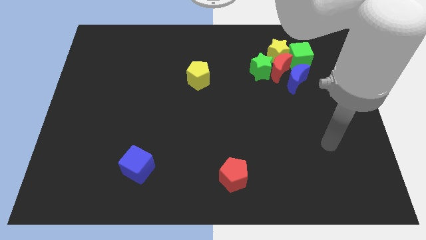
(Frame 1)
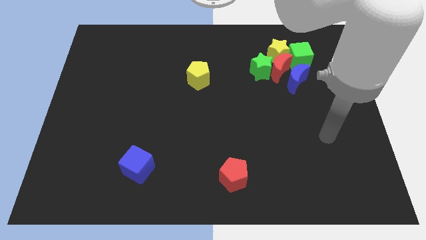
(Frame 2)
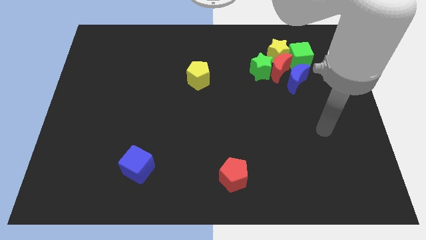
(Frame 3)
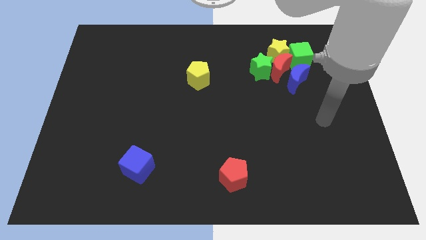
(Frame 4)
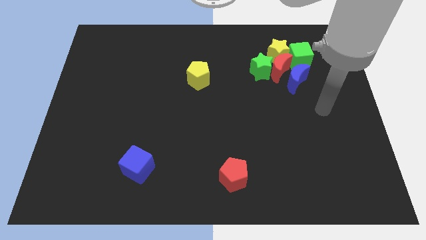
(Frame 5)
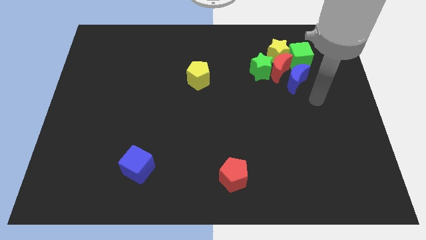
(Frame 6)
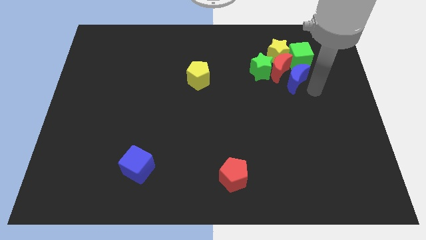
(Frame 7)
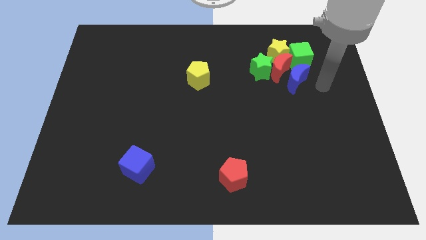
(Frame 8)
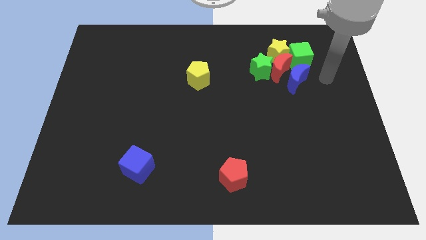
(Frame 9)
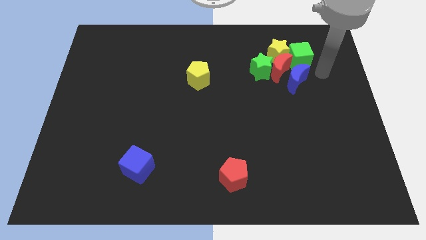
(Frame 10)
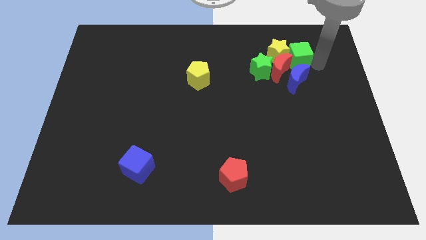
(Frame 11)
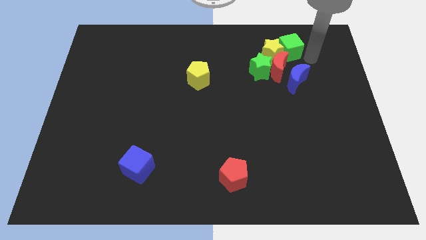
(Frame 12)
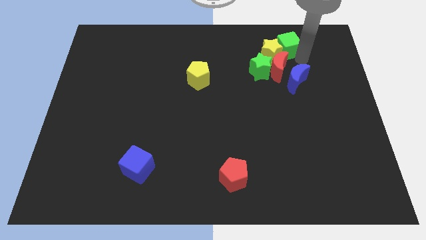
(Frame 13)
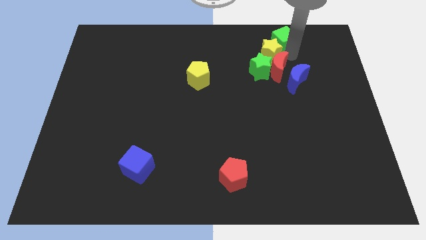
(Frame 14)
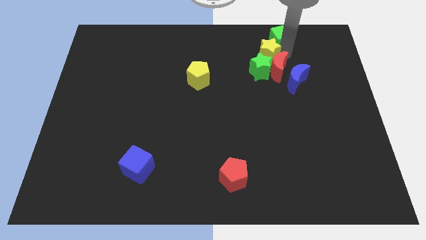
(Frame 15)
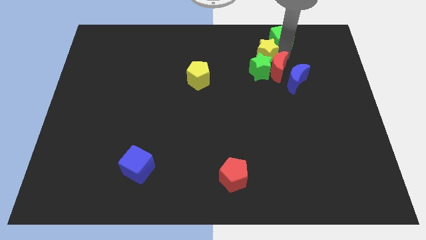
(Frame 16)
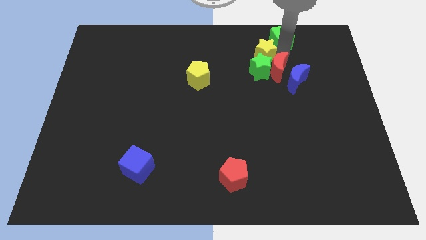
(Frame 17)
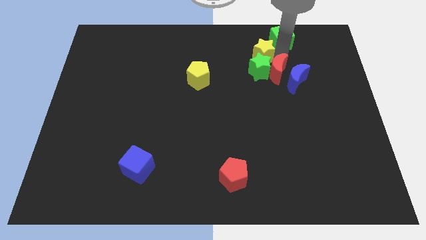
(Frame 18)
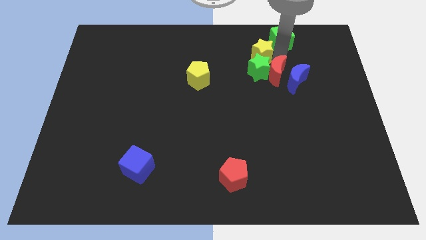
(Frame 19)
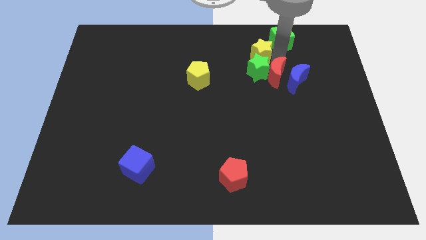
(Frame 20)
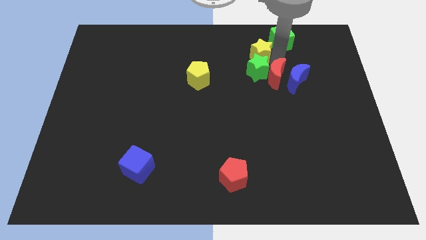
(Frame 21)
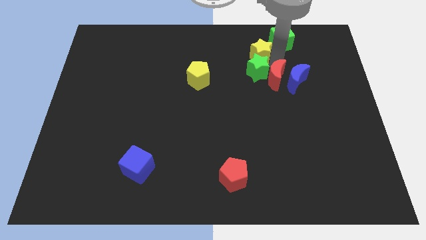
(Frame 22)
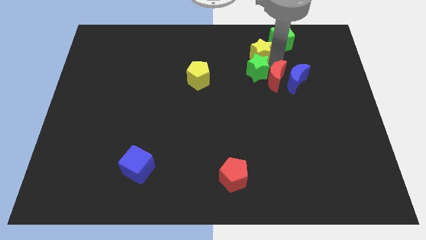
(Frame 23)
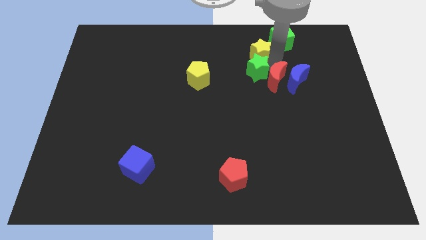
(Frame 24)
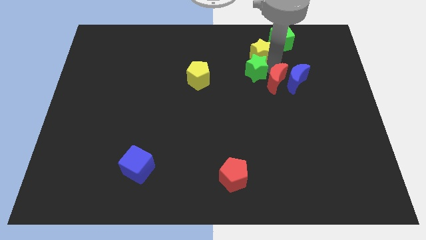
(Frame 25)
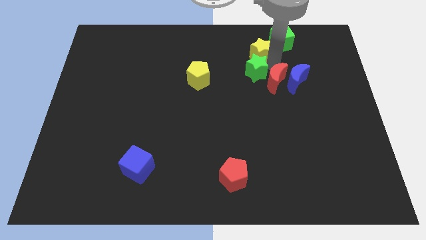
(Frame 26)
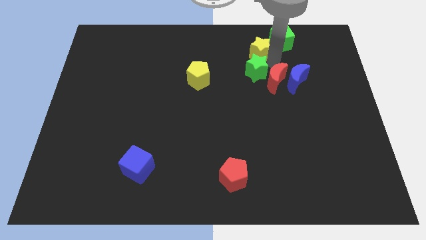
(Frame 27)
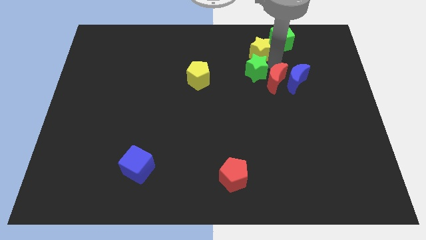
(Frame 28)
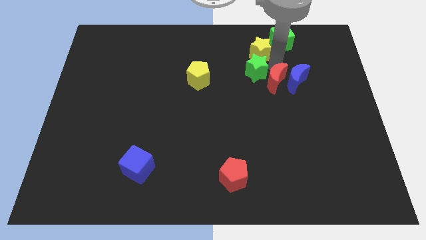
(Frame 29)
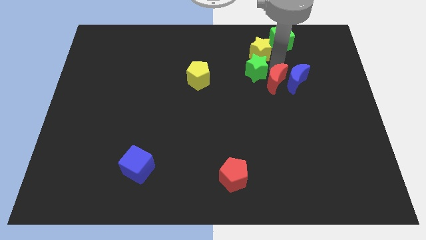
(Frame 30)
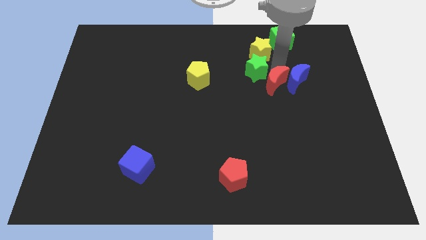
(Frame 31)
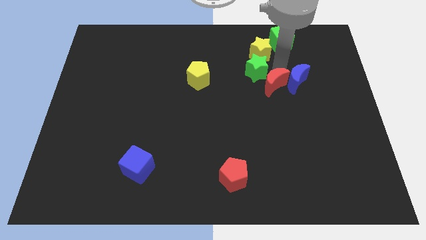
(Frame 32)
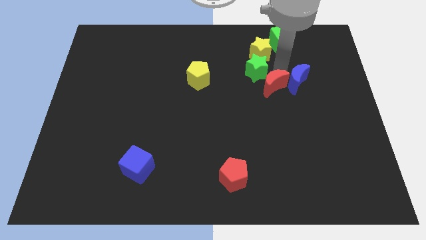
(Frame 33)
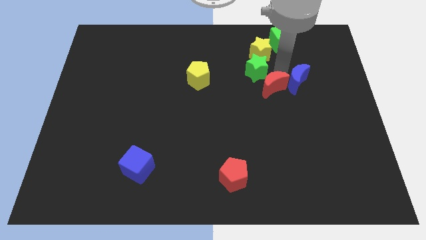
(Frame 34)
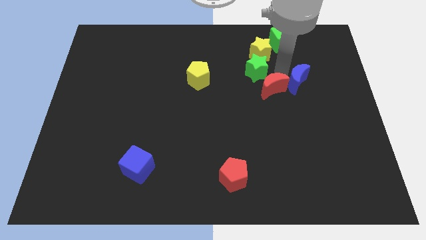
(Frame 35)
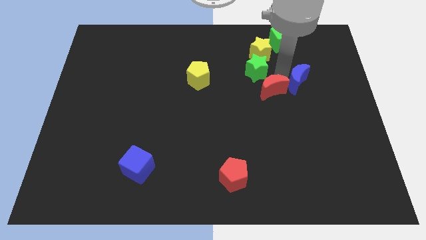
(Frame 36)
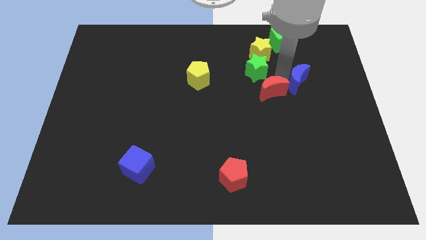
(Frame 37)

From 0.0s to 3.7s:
separate the red moon from the clump

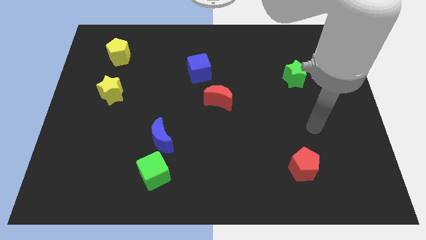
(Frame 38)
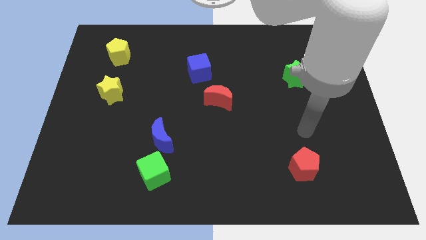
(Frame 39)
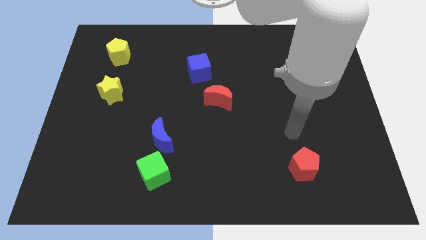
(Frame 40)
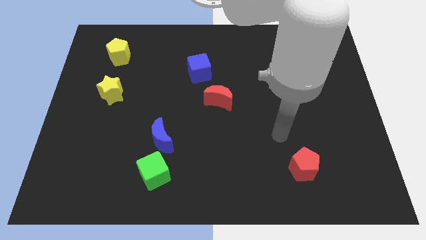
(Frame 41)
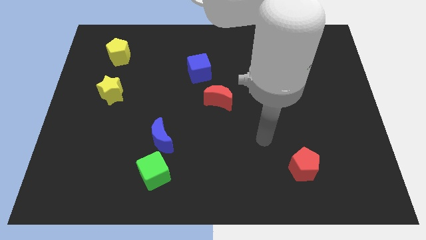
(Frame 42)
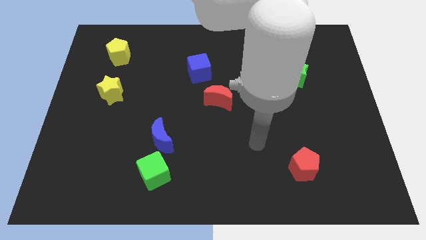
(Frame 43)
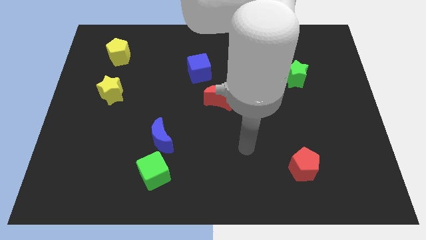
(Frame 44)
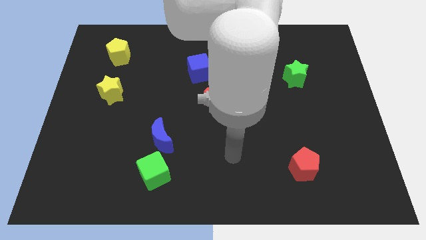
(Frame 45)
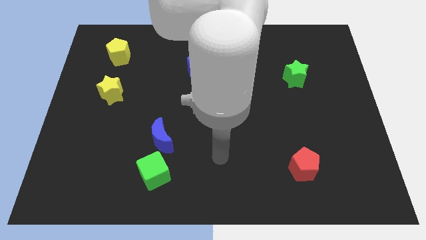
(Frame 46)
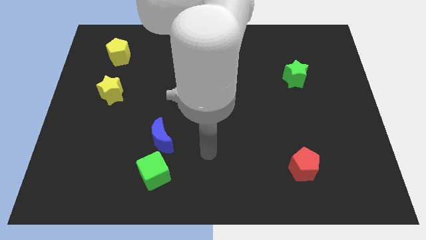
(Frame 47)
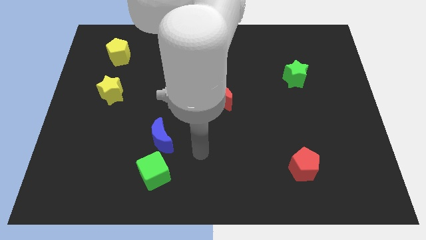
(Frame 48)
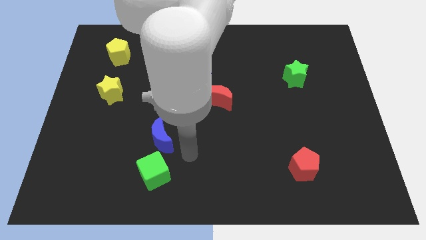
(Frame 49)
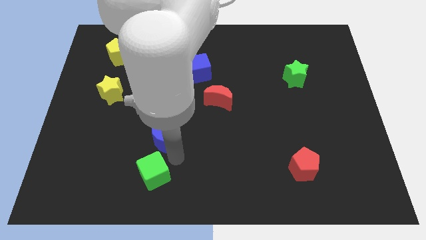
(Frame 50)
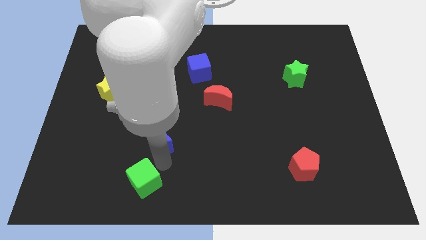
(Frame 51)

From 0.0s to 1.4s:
move the blue moon away from the green cube

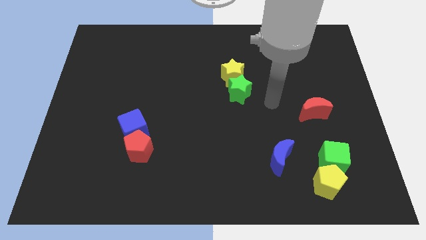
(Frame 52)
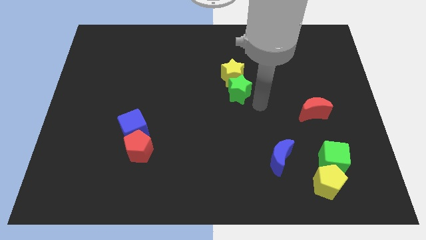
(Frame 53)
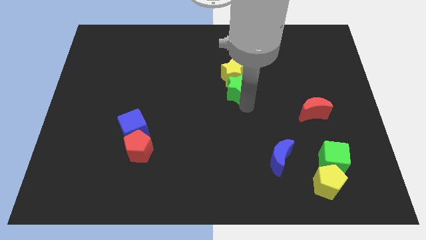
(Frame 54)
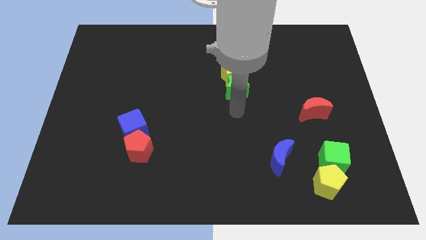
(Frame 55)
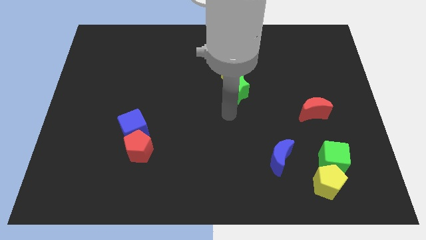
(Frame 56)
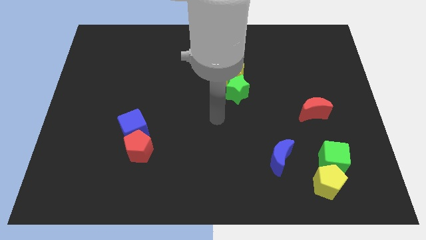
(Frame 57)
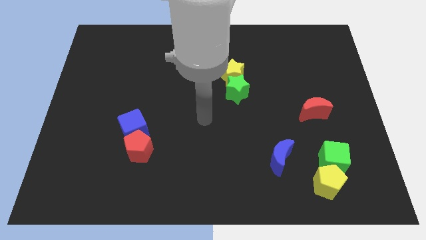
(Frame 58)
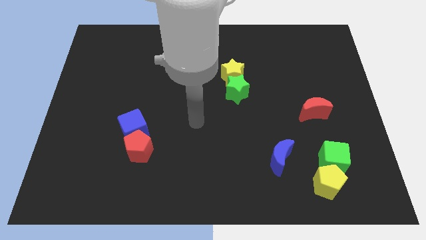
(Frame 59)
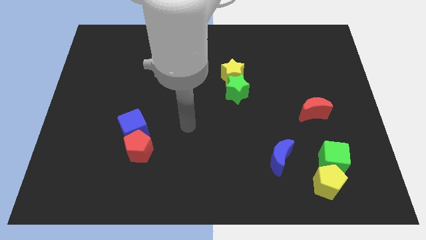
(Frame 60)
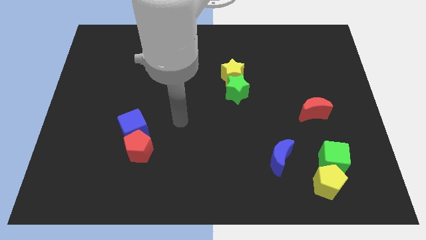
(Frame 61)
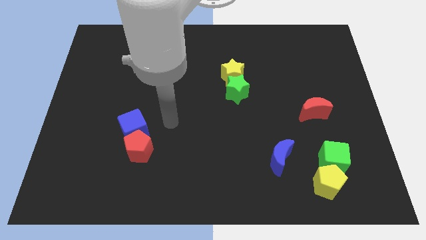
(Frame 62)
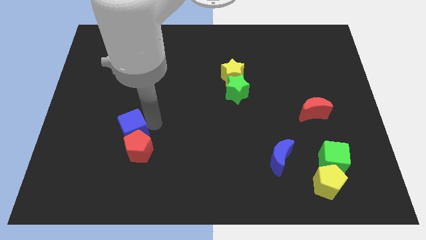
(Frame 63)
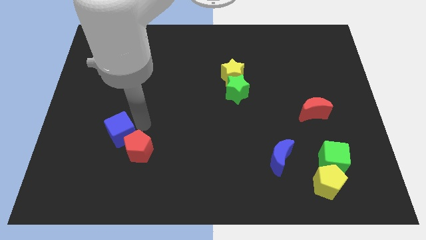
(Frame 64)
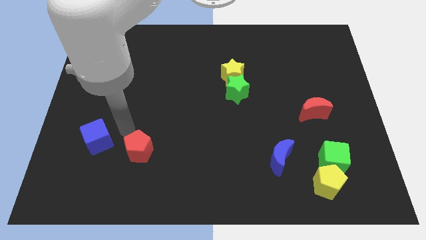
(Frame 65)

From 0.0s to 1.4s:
pull the red pentagon apart from the blue cube

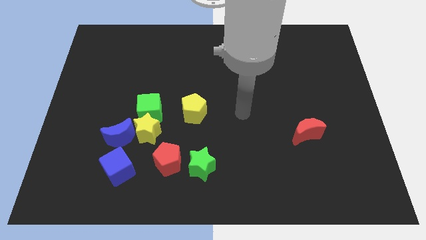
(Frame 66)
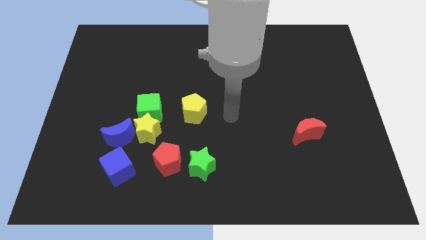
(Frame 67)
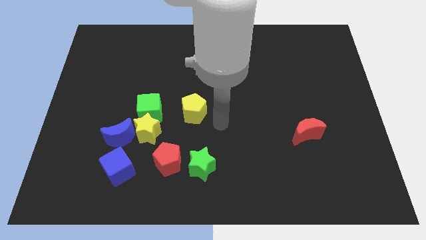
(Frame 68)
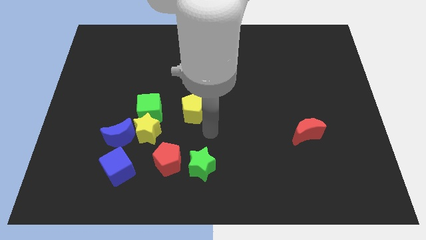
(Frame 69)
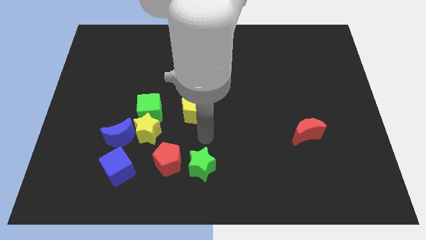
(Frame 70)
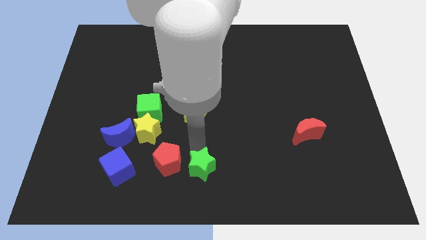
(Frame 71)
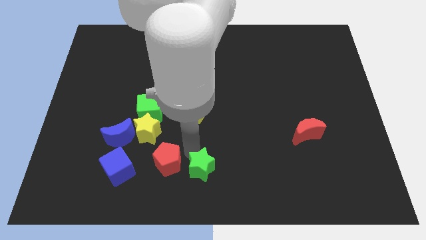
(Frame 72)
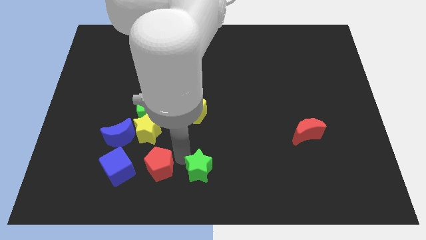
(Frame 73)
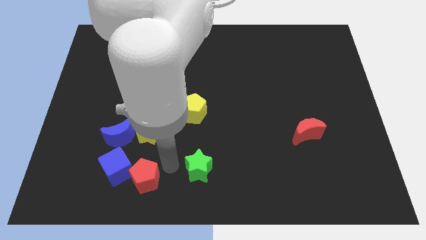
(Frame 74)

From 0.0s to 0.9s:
move the green star away from the red pentagon

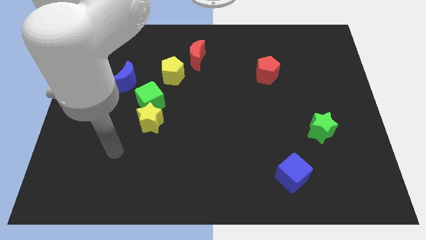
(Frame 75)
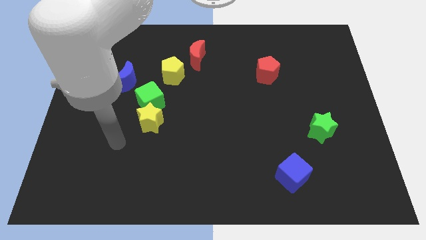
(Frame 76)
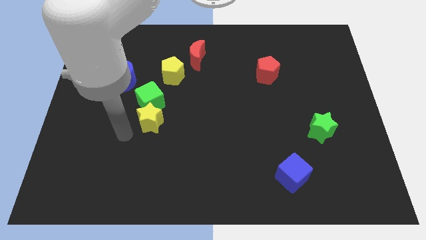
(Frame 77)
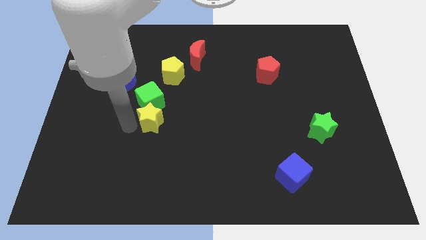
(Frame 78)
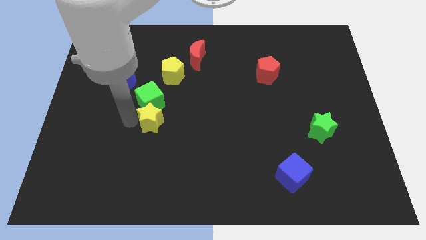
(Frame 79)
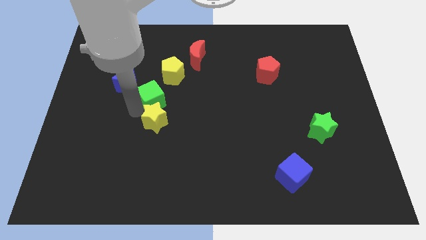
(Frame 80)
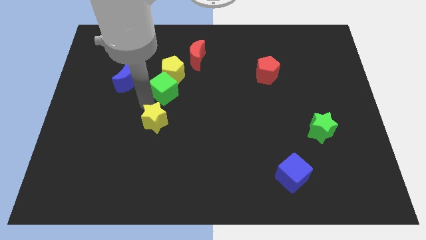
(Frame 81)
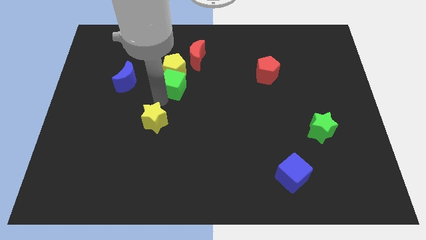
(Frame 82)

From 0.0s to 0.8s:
pull the yellow star apart from the green cube

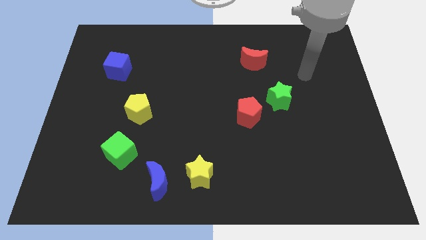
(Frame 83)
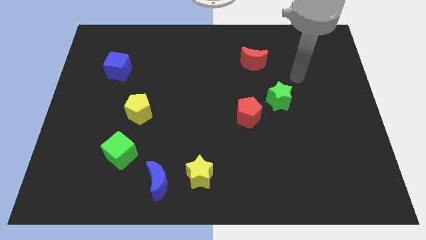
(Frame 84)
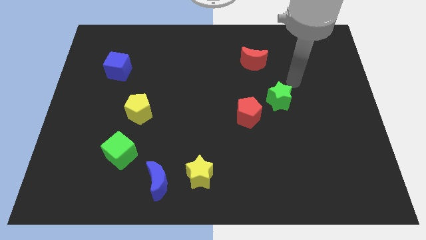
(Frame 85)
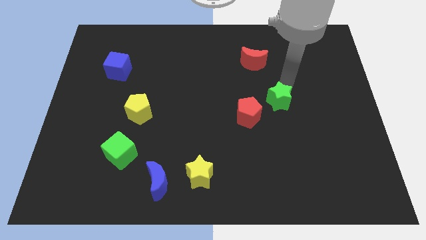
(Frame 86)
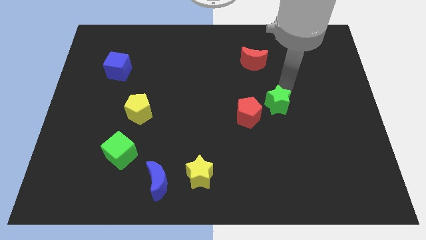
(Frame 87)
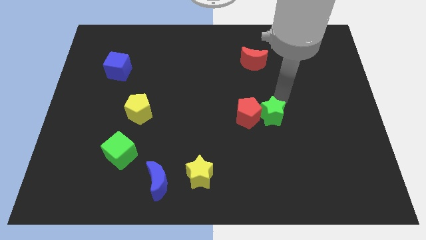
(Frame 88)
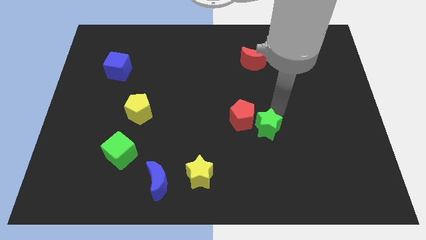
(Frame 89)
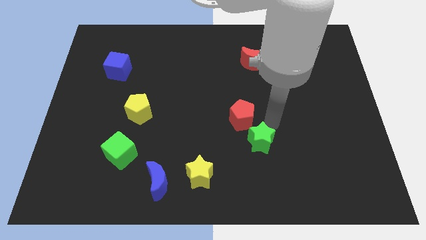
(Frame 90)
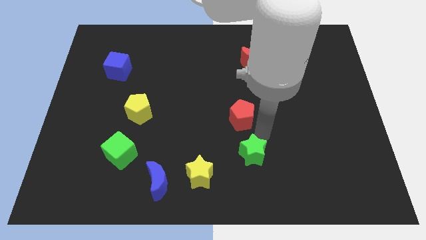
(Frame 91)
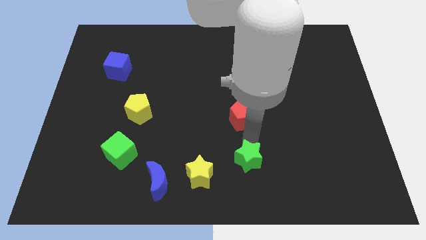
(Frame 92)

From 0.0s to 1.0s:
separate the red pentagon from the green star

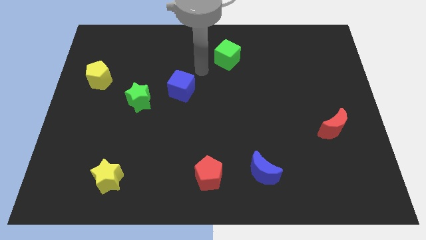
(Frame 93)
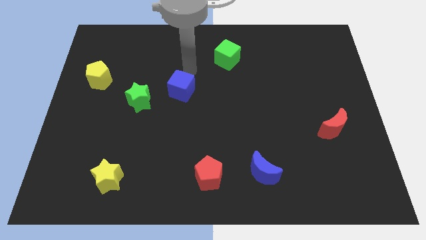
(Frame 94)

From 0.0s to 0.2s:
separate the blue cube from the green star
